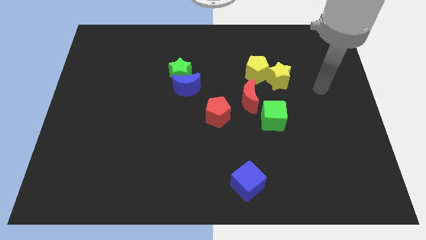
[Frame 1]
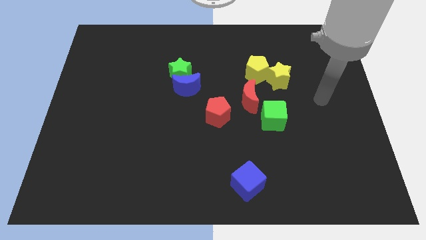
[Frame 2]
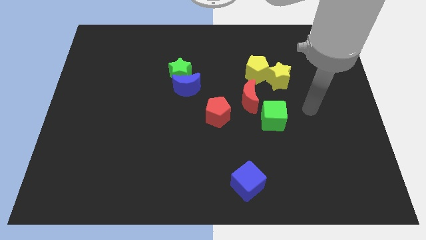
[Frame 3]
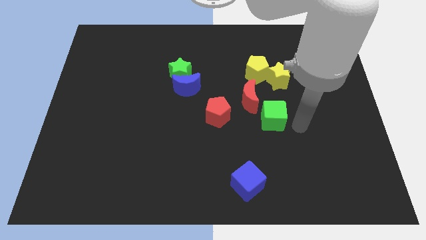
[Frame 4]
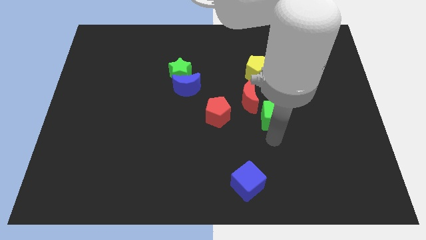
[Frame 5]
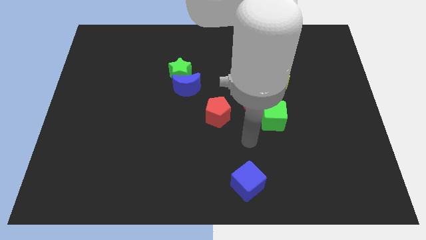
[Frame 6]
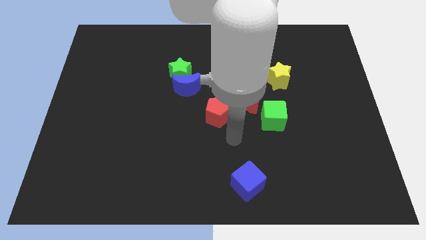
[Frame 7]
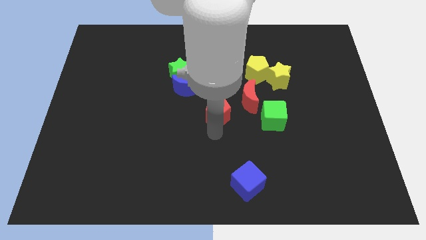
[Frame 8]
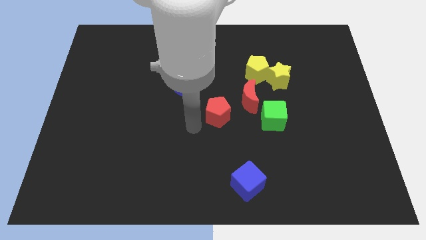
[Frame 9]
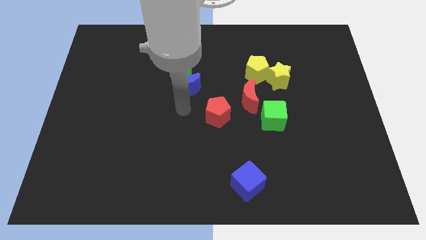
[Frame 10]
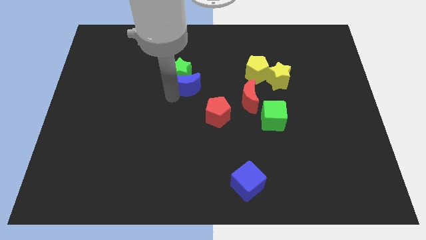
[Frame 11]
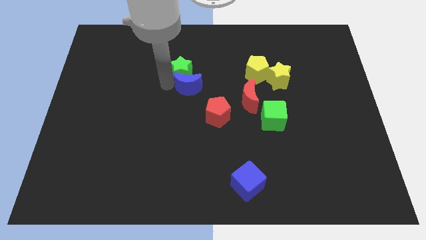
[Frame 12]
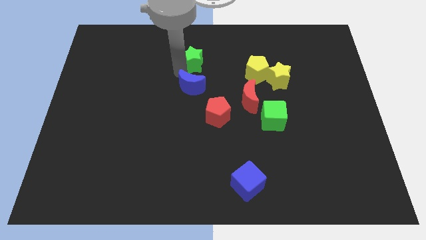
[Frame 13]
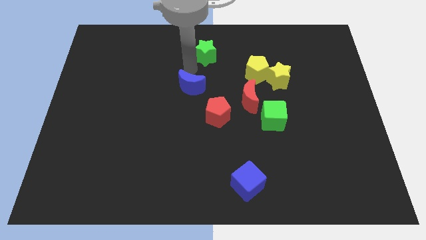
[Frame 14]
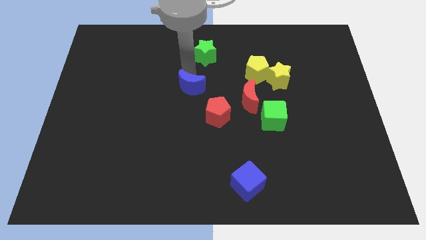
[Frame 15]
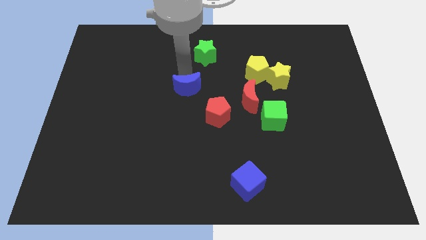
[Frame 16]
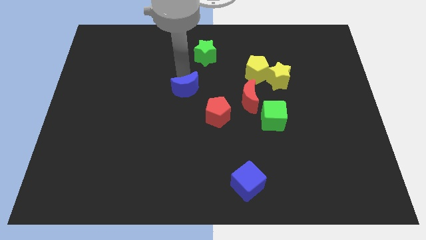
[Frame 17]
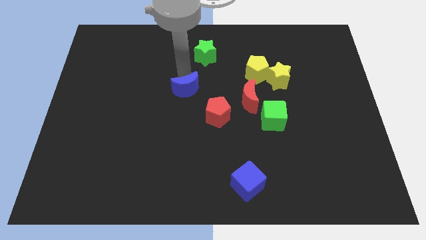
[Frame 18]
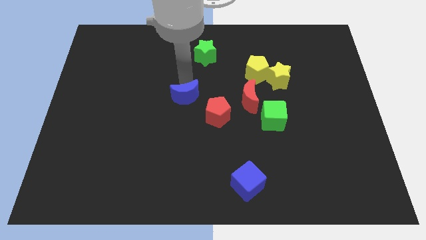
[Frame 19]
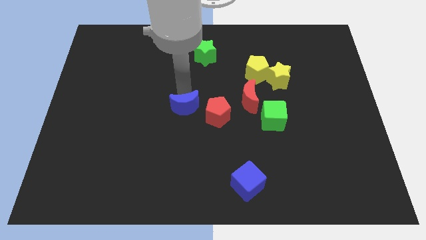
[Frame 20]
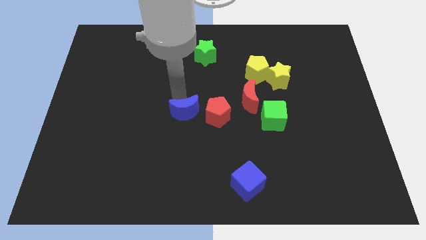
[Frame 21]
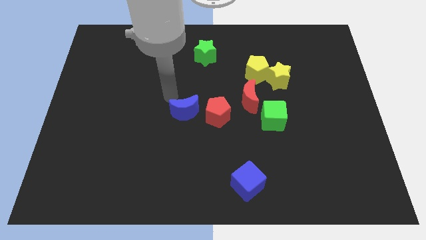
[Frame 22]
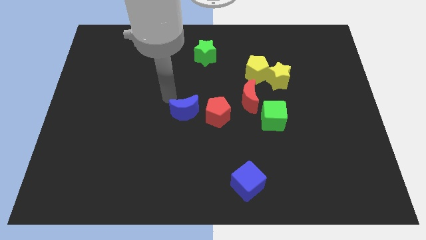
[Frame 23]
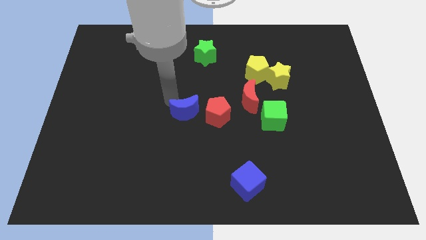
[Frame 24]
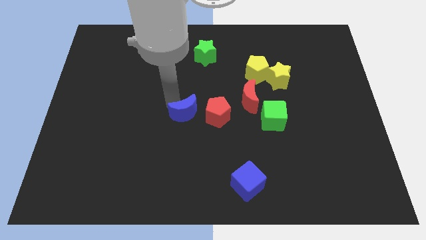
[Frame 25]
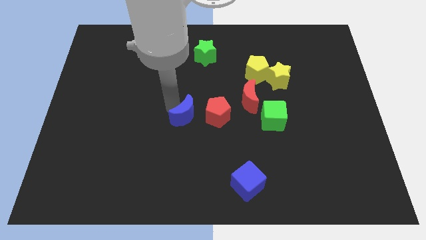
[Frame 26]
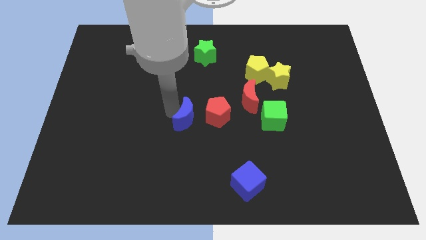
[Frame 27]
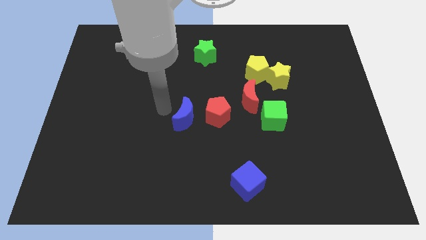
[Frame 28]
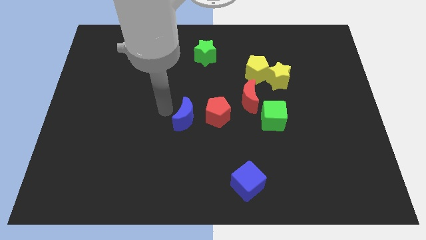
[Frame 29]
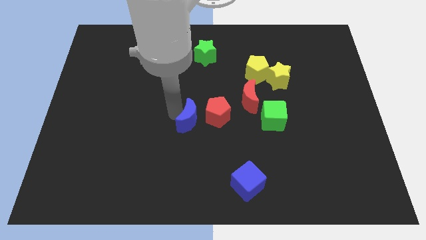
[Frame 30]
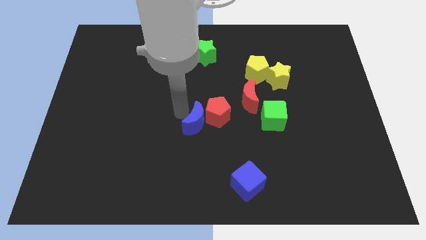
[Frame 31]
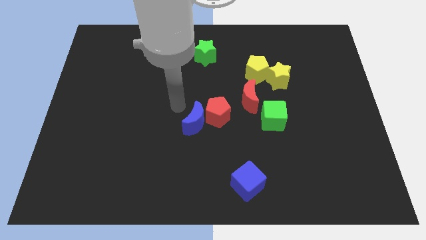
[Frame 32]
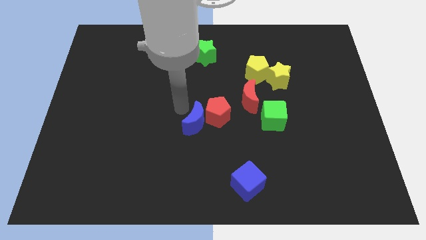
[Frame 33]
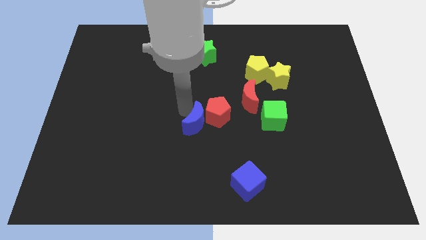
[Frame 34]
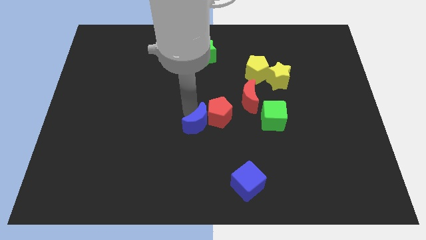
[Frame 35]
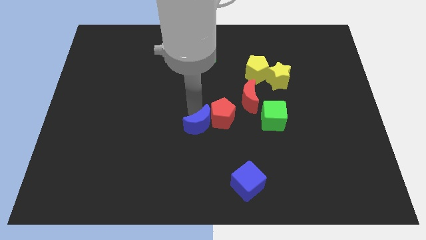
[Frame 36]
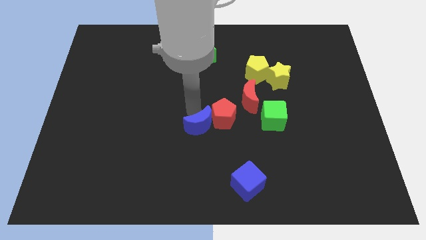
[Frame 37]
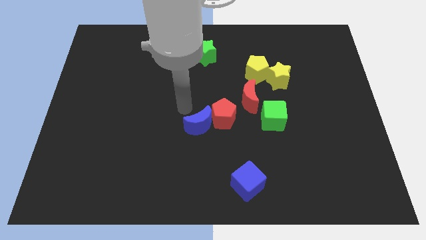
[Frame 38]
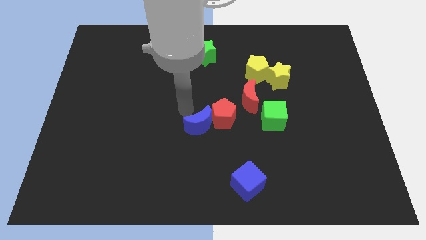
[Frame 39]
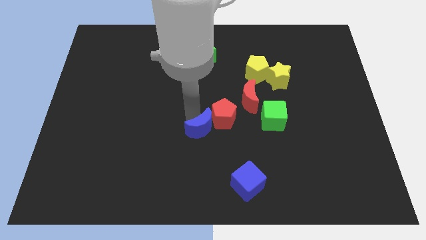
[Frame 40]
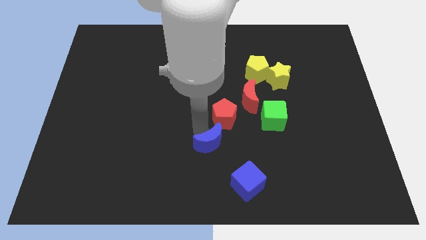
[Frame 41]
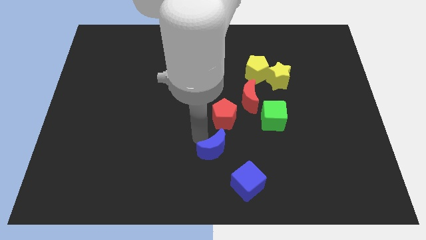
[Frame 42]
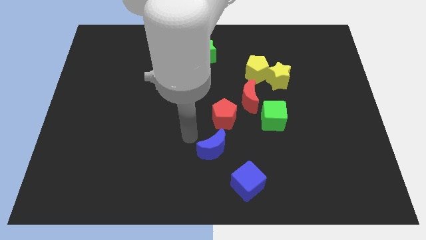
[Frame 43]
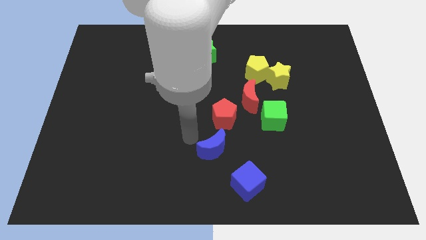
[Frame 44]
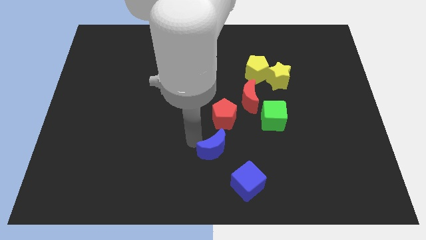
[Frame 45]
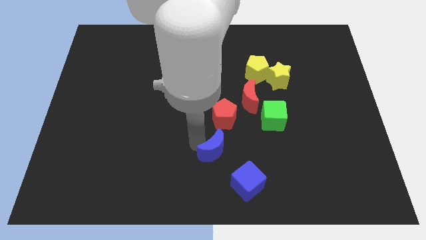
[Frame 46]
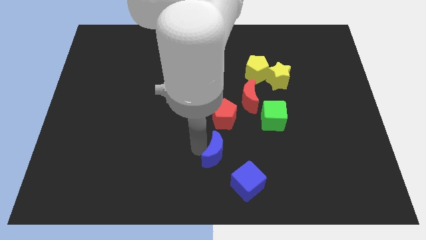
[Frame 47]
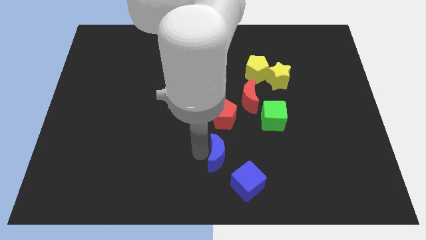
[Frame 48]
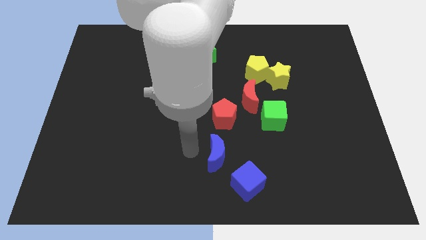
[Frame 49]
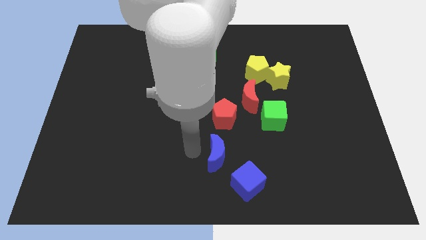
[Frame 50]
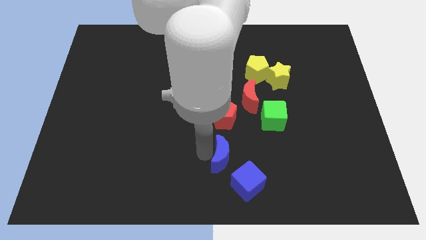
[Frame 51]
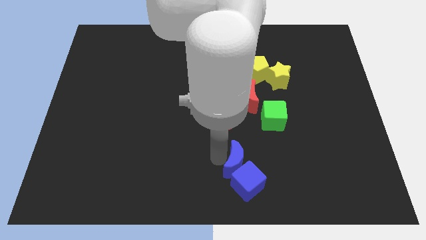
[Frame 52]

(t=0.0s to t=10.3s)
move the blue moon downwards and to the right diagonally

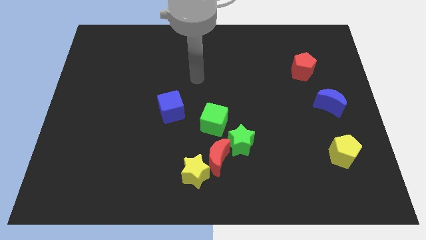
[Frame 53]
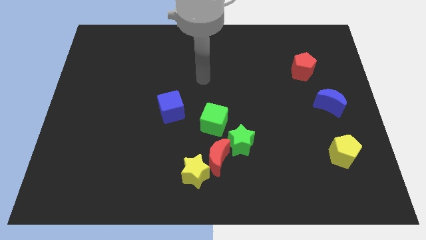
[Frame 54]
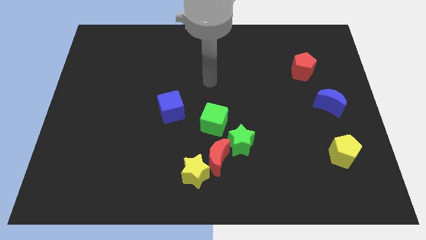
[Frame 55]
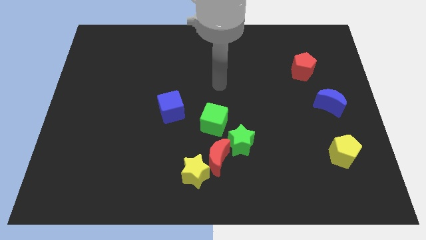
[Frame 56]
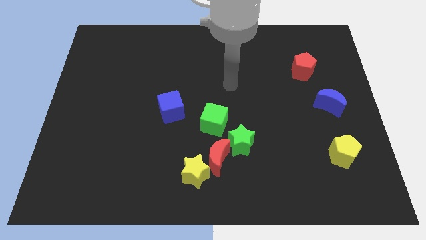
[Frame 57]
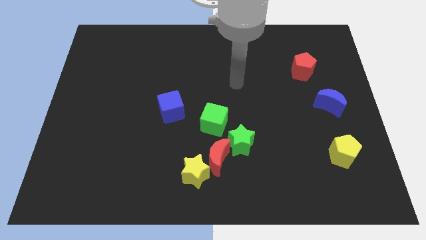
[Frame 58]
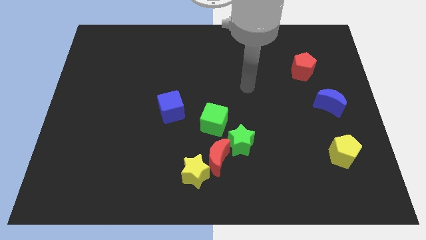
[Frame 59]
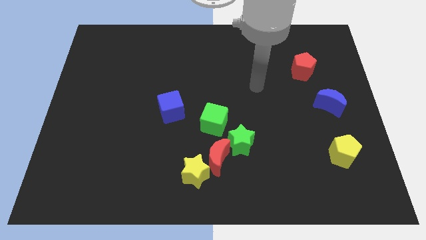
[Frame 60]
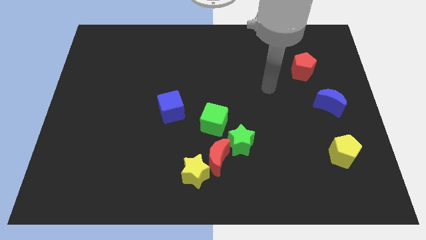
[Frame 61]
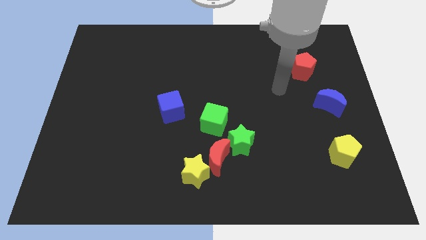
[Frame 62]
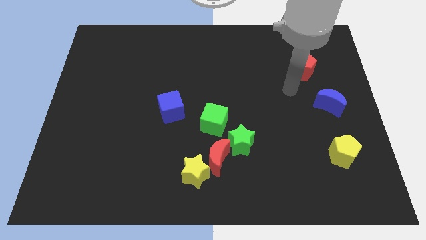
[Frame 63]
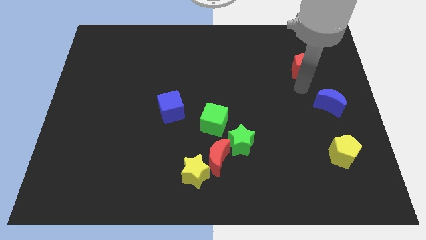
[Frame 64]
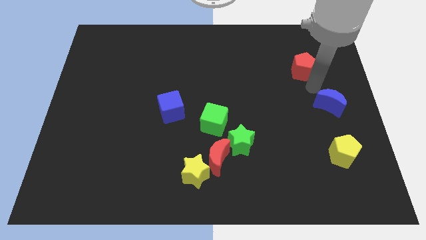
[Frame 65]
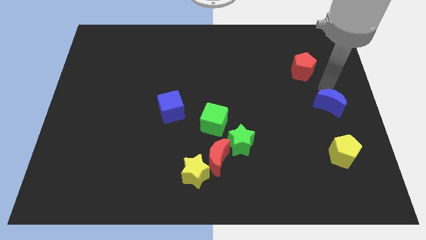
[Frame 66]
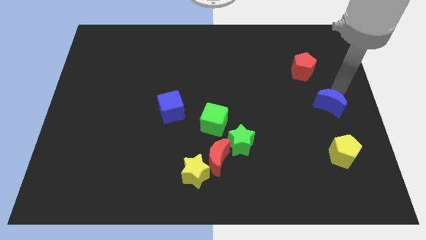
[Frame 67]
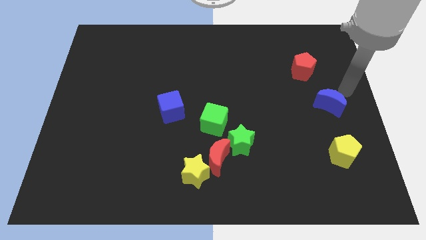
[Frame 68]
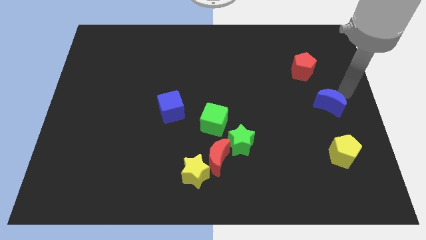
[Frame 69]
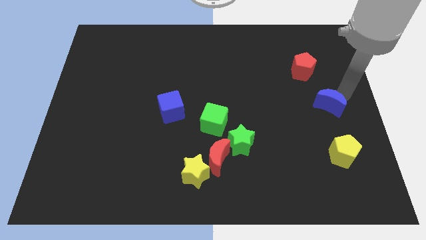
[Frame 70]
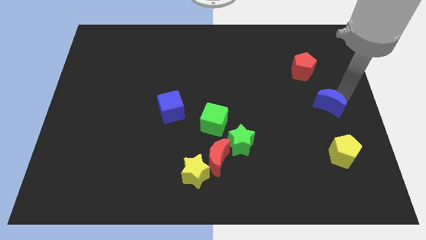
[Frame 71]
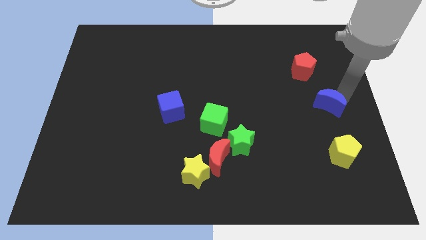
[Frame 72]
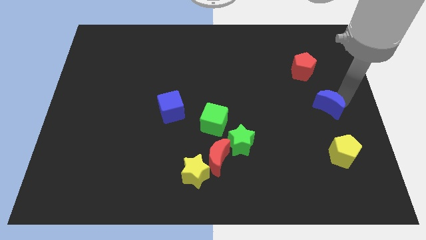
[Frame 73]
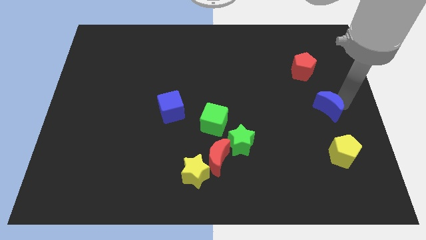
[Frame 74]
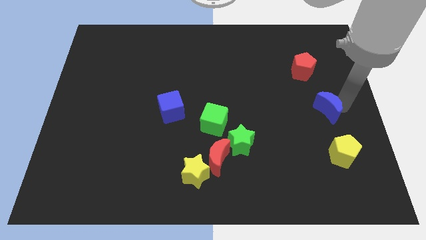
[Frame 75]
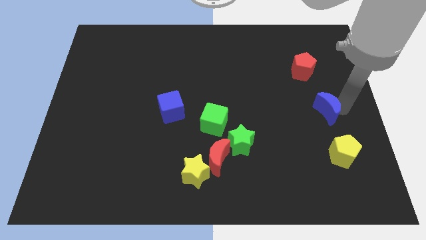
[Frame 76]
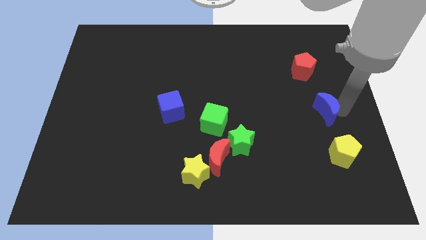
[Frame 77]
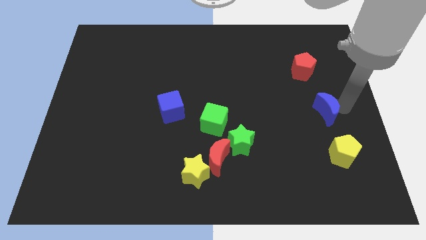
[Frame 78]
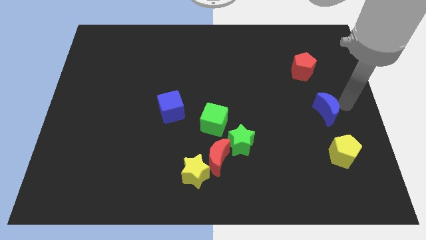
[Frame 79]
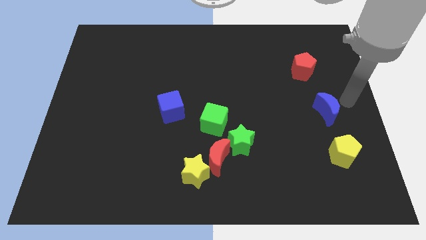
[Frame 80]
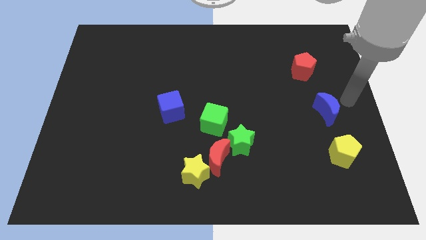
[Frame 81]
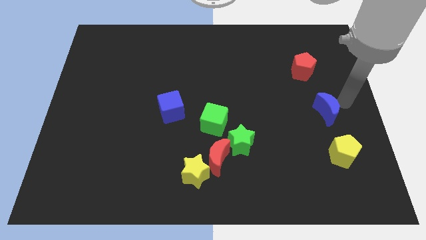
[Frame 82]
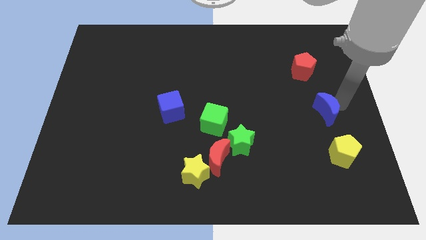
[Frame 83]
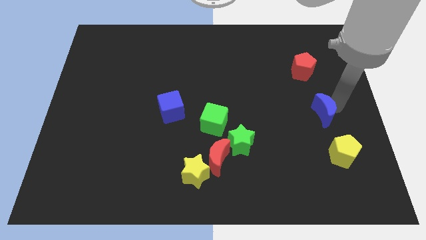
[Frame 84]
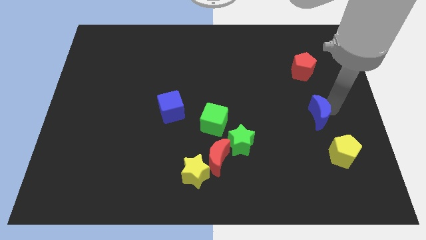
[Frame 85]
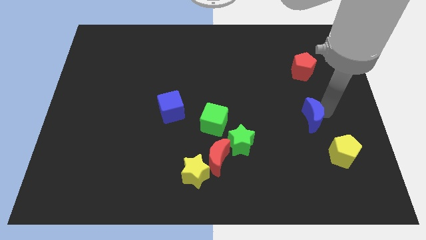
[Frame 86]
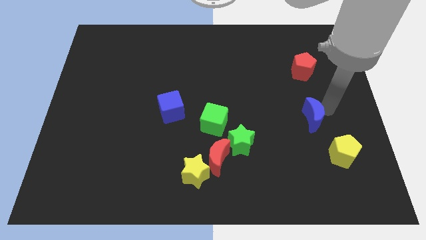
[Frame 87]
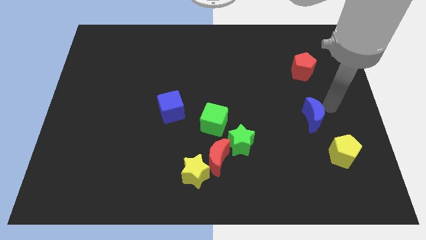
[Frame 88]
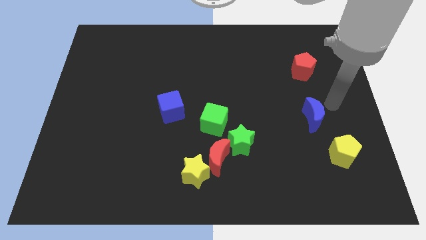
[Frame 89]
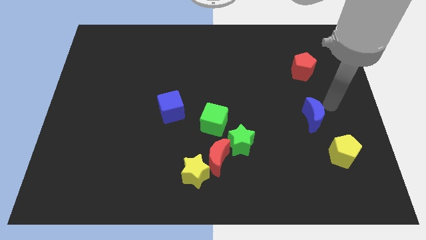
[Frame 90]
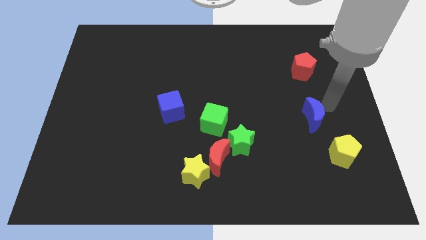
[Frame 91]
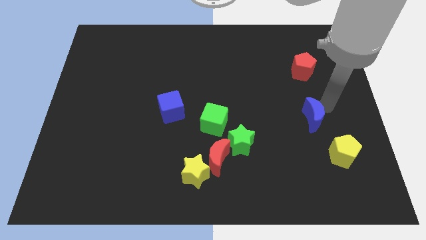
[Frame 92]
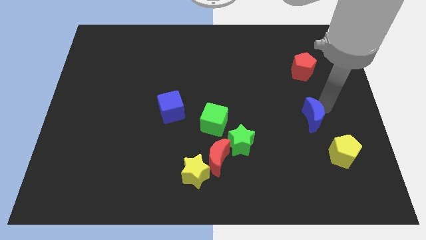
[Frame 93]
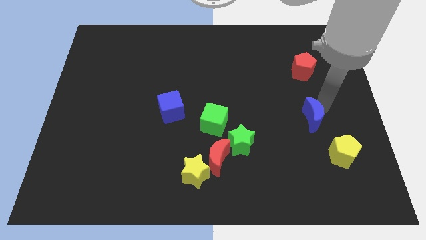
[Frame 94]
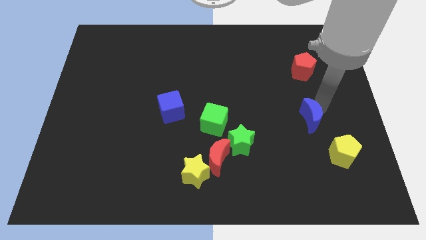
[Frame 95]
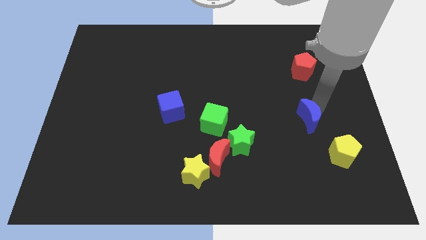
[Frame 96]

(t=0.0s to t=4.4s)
slightly move the blue moon diagonally downwards and to the left
